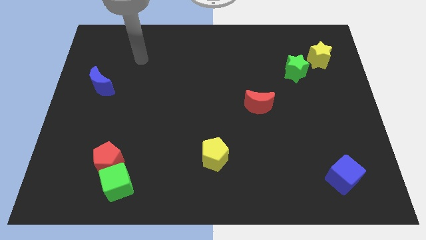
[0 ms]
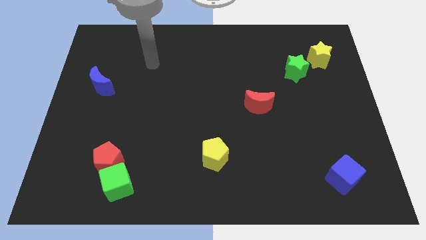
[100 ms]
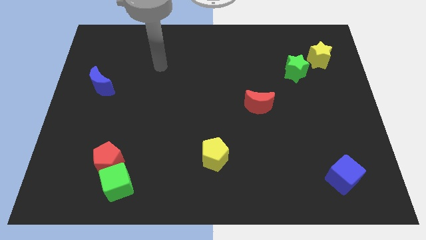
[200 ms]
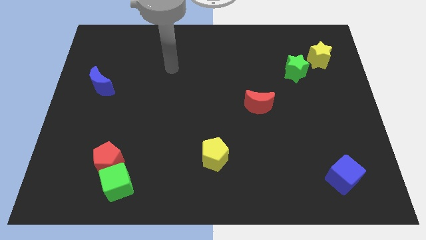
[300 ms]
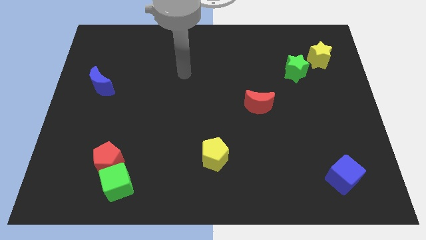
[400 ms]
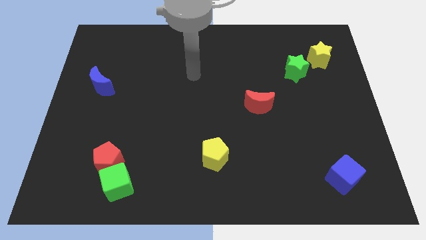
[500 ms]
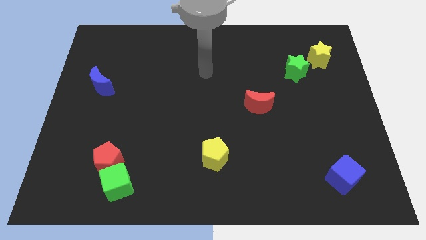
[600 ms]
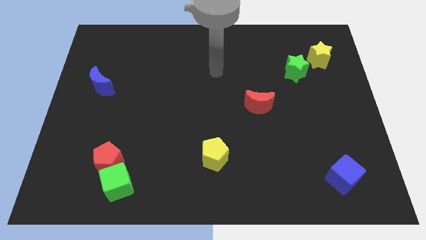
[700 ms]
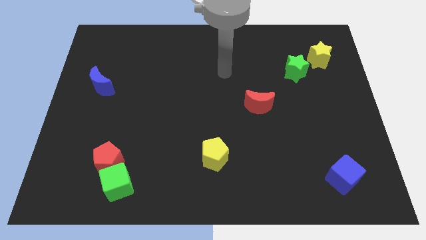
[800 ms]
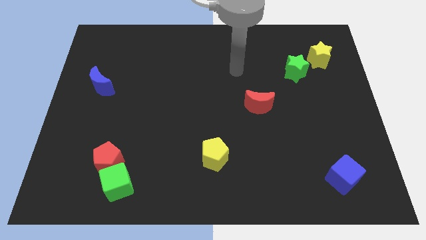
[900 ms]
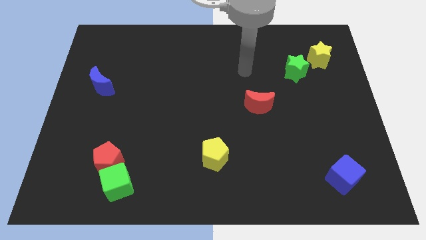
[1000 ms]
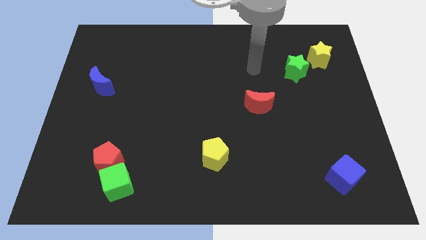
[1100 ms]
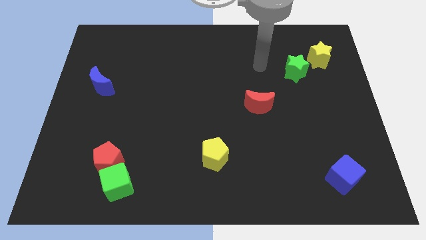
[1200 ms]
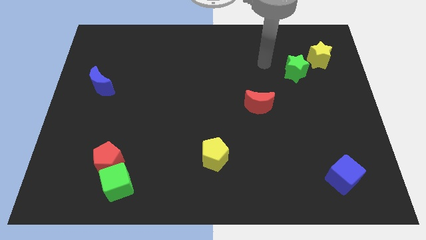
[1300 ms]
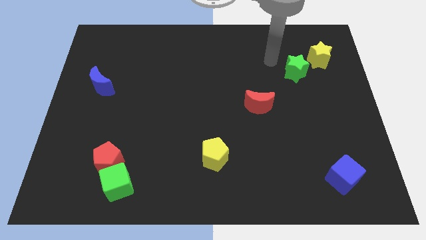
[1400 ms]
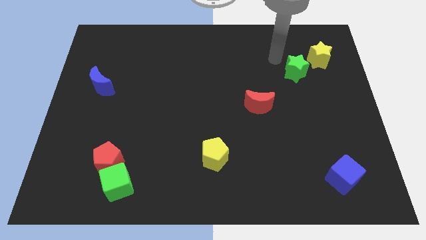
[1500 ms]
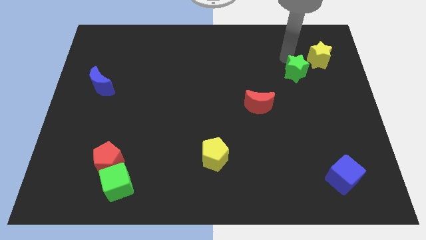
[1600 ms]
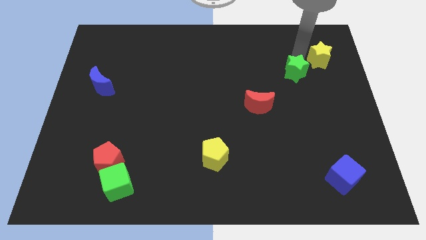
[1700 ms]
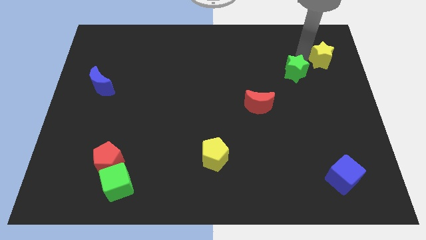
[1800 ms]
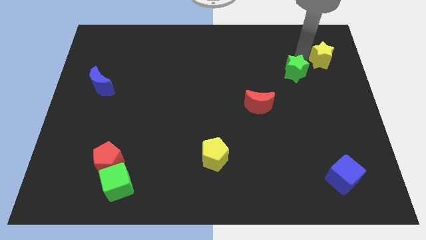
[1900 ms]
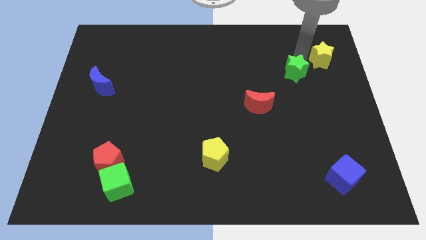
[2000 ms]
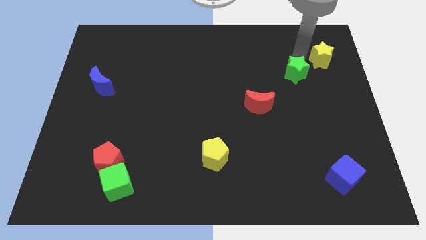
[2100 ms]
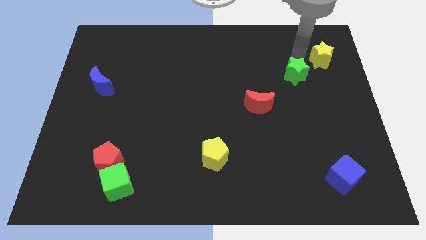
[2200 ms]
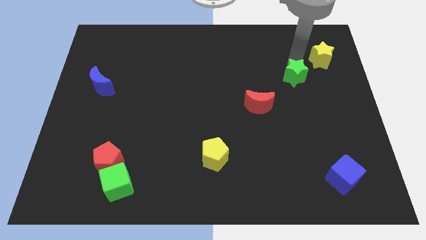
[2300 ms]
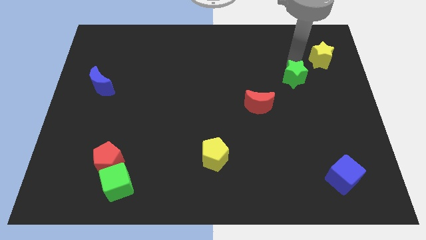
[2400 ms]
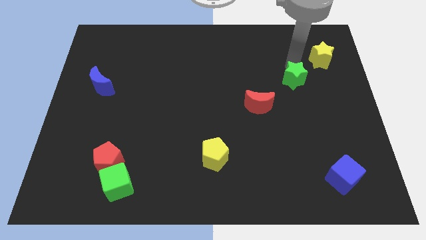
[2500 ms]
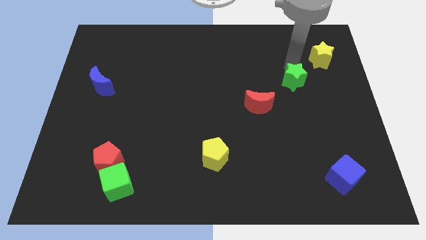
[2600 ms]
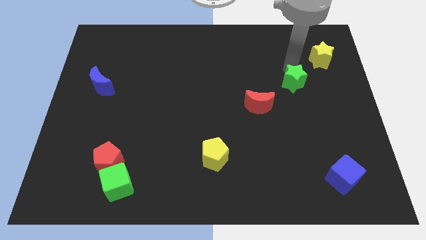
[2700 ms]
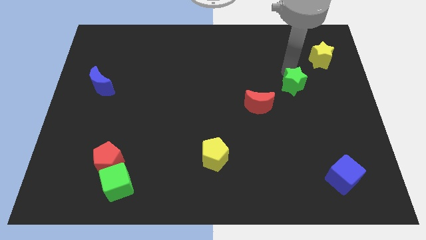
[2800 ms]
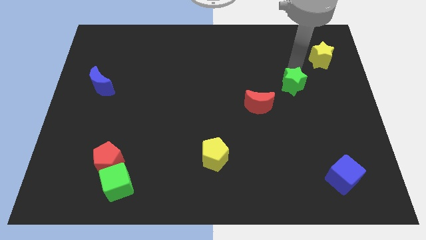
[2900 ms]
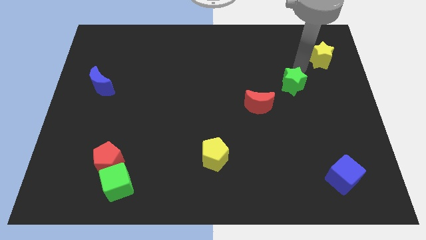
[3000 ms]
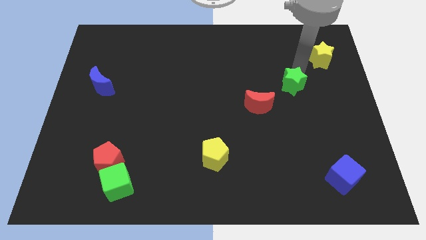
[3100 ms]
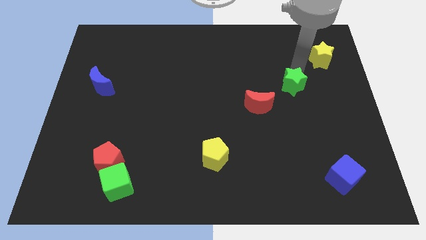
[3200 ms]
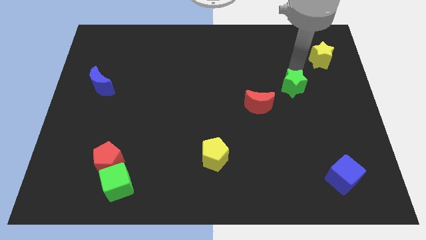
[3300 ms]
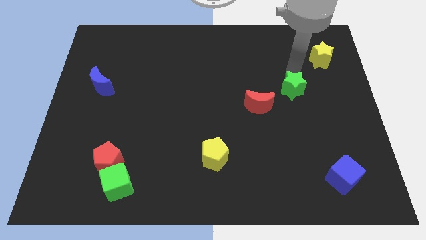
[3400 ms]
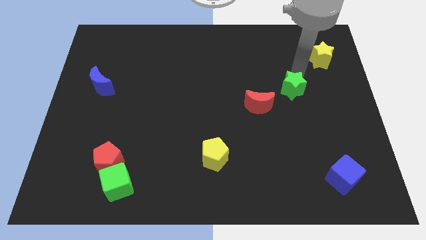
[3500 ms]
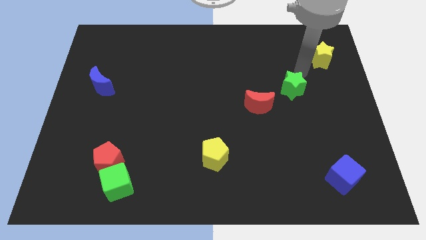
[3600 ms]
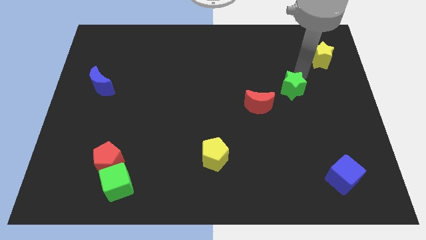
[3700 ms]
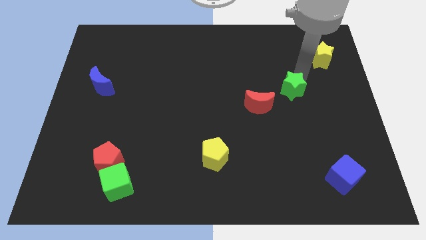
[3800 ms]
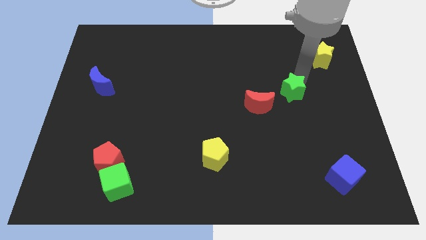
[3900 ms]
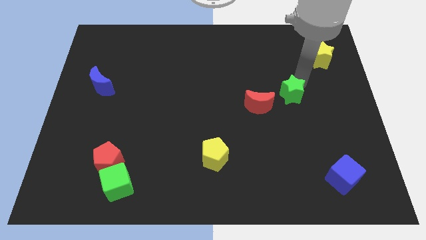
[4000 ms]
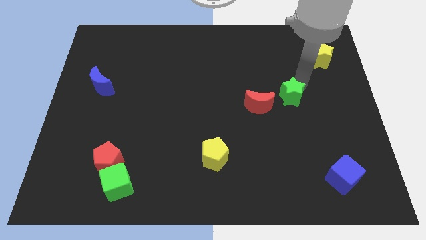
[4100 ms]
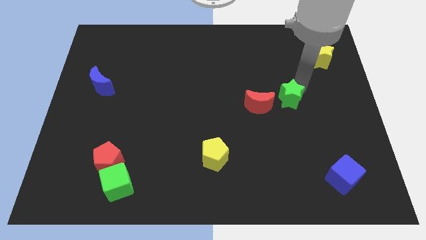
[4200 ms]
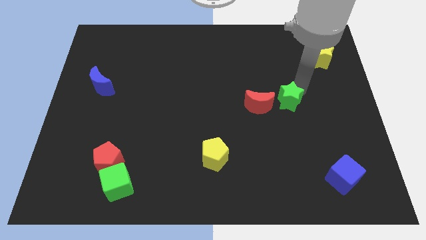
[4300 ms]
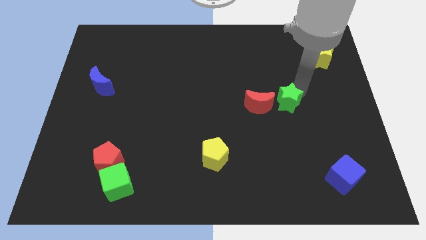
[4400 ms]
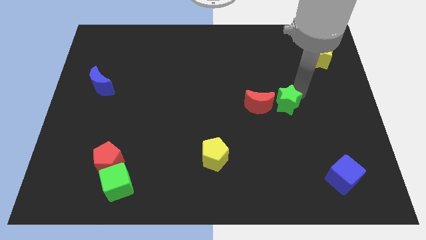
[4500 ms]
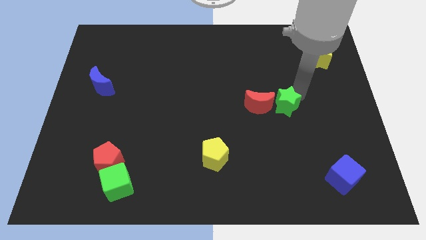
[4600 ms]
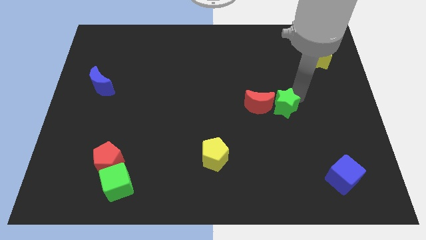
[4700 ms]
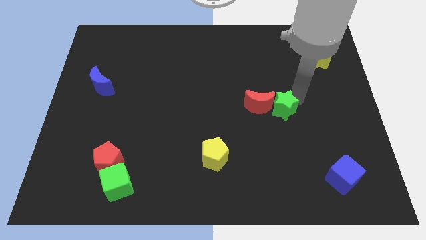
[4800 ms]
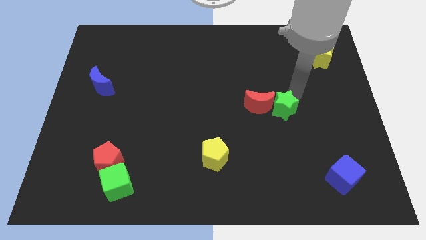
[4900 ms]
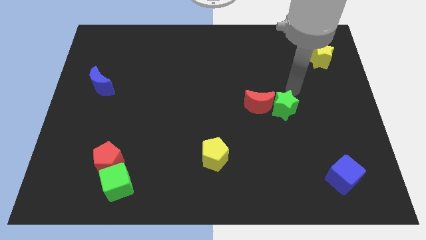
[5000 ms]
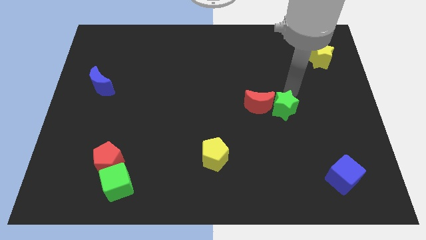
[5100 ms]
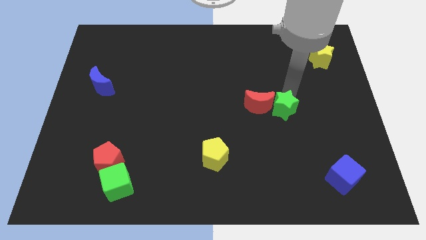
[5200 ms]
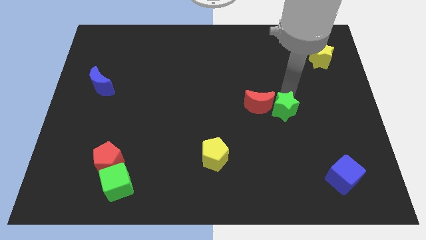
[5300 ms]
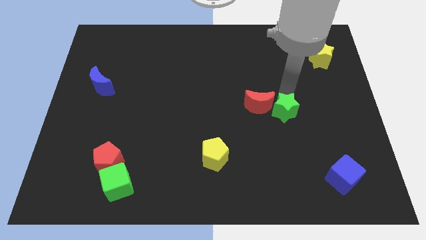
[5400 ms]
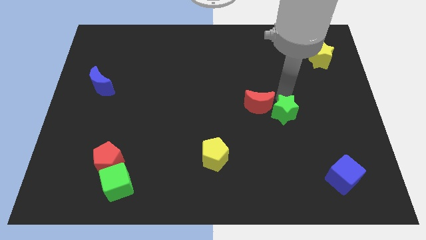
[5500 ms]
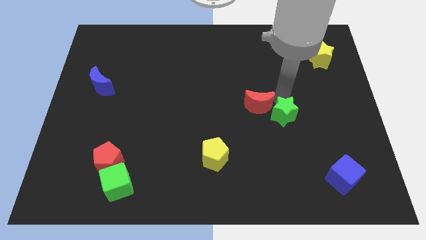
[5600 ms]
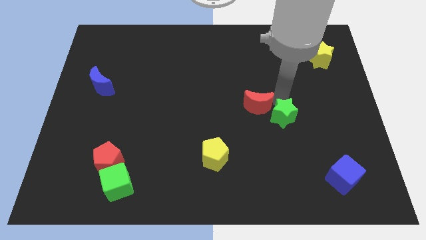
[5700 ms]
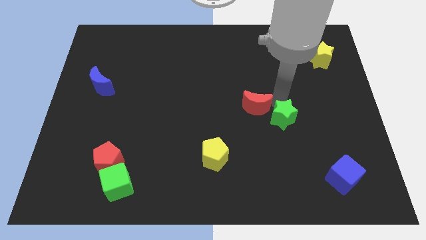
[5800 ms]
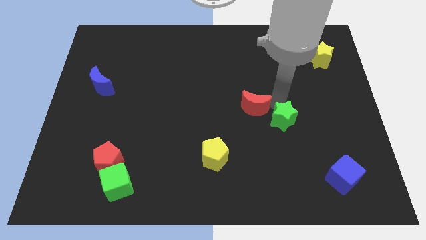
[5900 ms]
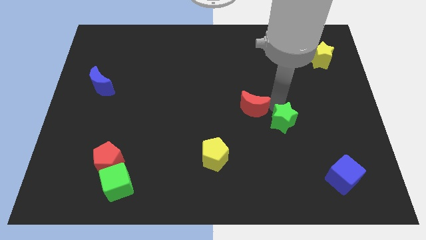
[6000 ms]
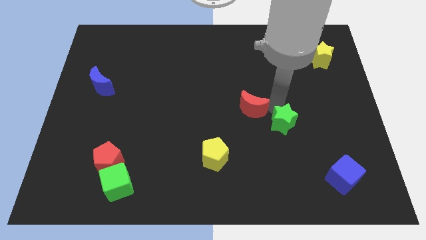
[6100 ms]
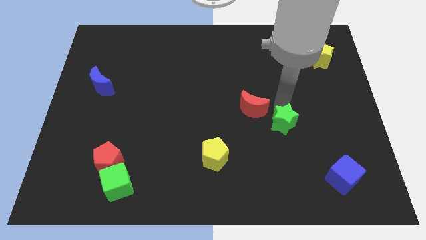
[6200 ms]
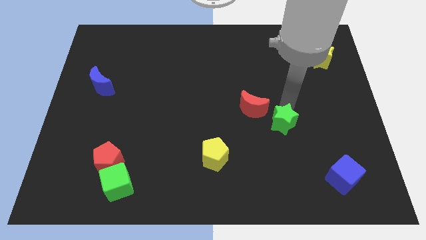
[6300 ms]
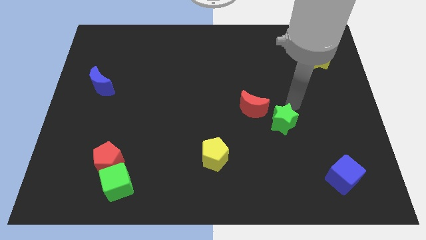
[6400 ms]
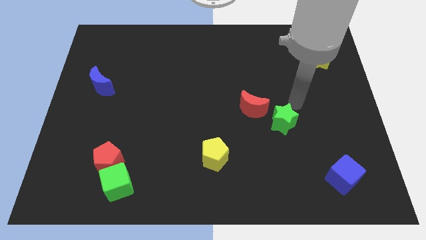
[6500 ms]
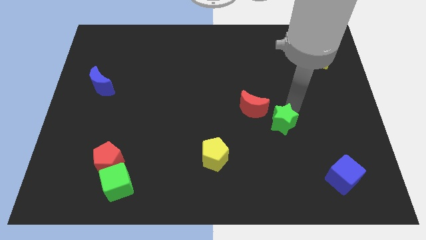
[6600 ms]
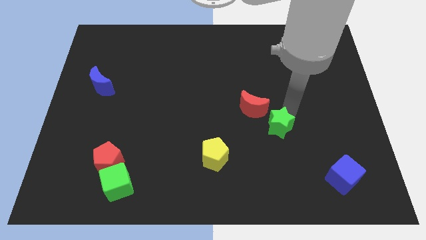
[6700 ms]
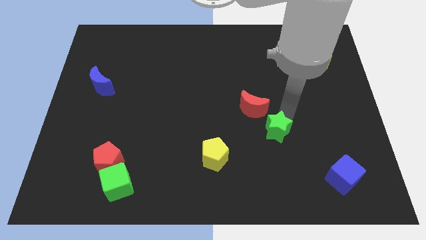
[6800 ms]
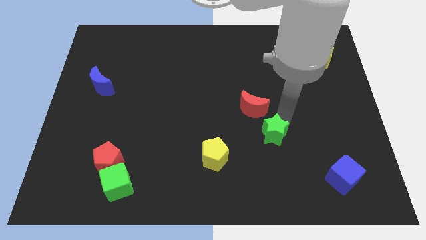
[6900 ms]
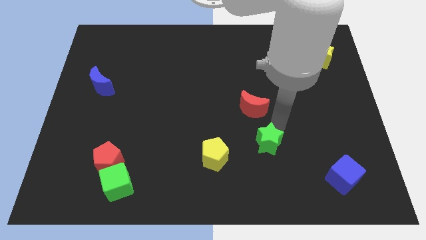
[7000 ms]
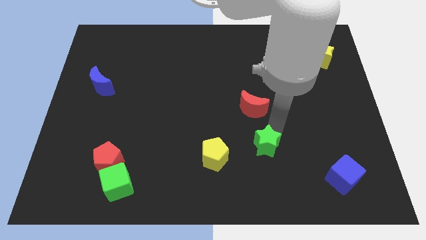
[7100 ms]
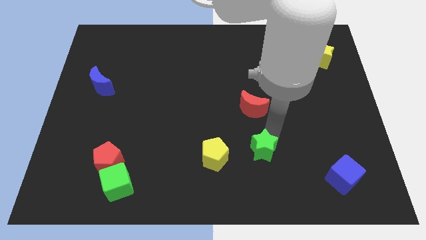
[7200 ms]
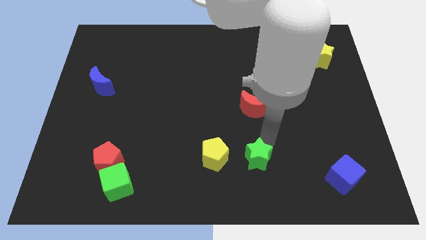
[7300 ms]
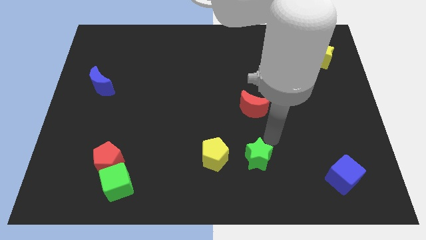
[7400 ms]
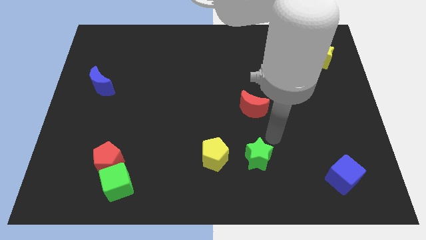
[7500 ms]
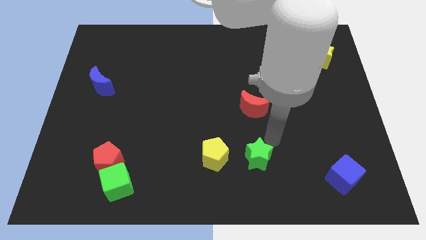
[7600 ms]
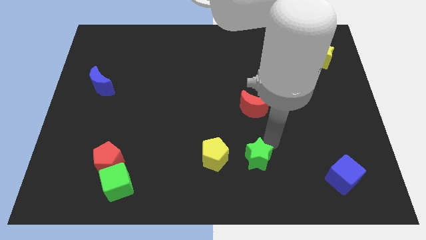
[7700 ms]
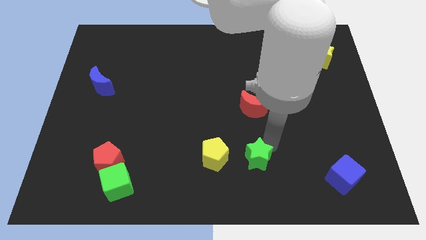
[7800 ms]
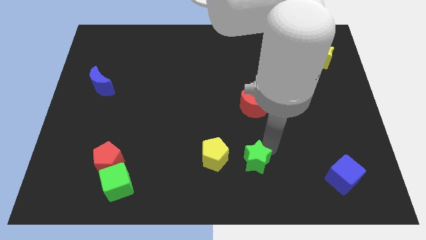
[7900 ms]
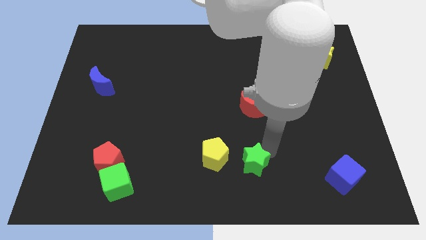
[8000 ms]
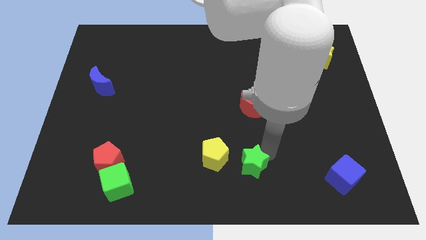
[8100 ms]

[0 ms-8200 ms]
put the green star to the bottom side
